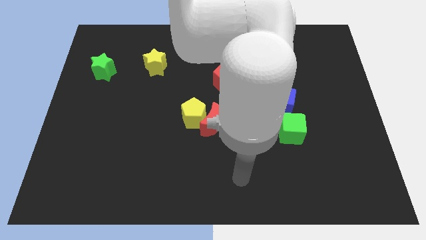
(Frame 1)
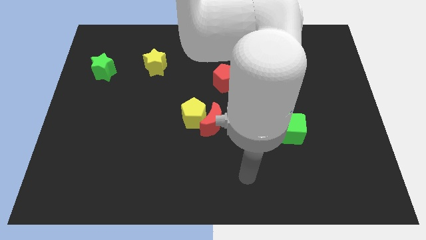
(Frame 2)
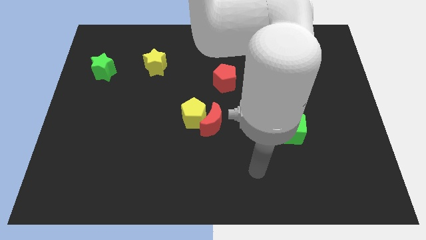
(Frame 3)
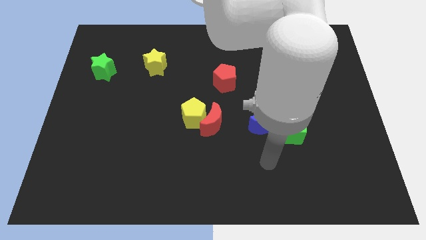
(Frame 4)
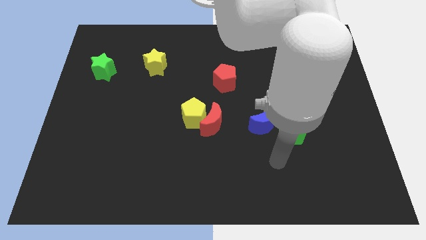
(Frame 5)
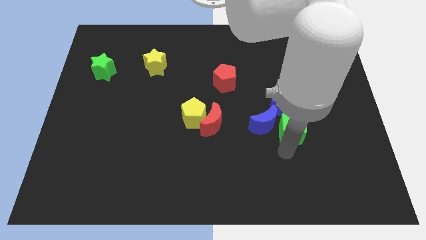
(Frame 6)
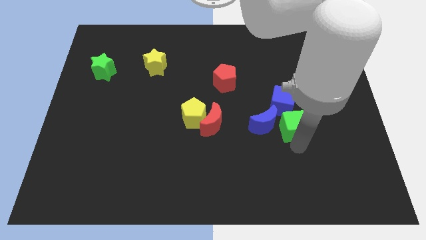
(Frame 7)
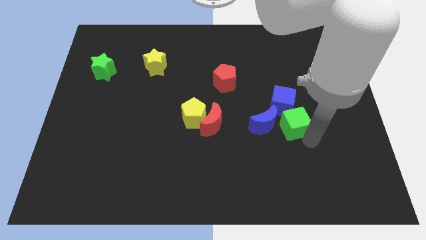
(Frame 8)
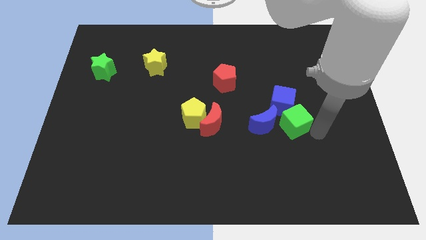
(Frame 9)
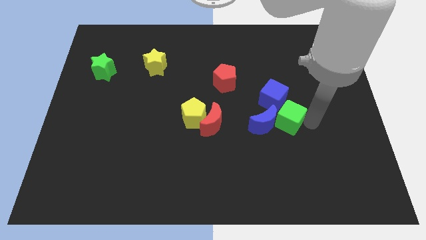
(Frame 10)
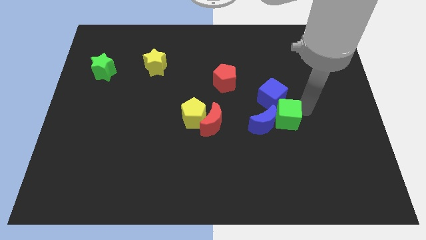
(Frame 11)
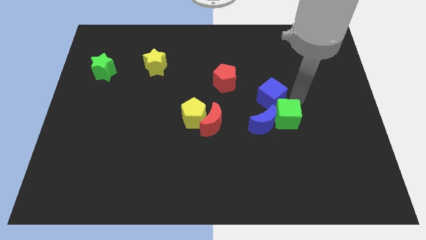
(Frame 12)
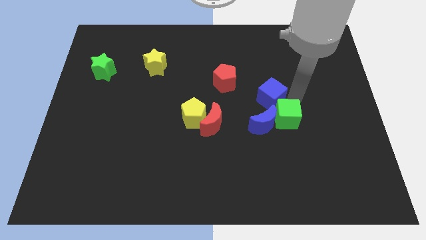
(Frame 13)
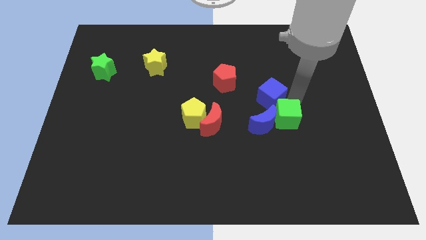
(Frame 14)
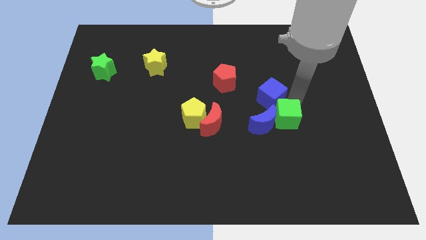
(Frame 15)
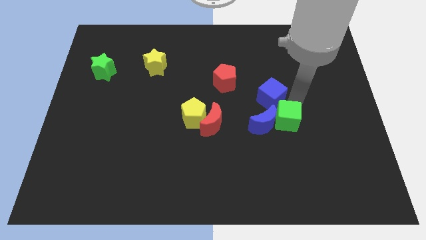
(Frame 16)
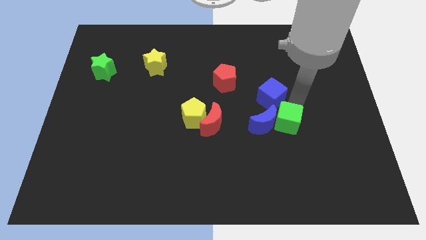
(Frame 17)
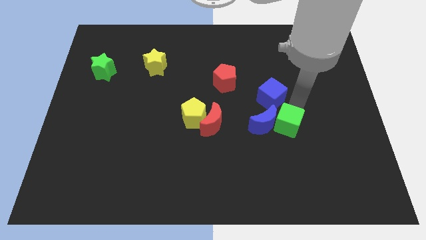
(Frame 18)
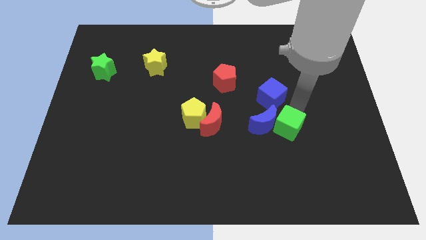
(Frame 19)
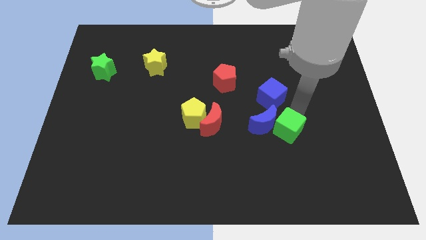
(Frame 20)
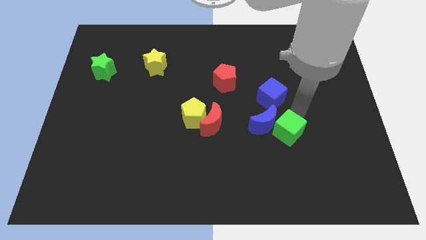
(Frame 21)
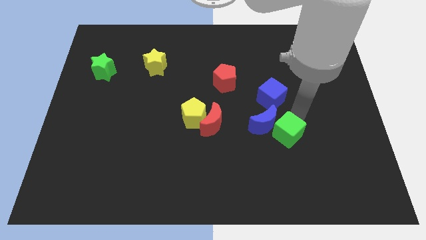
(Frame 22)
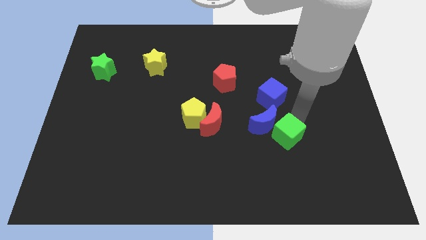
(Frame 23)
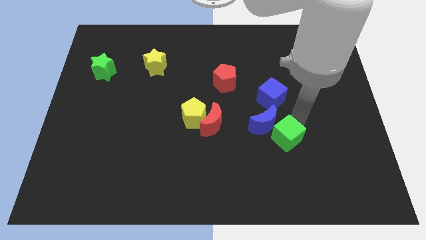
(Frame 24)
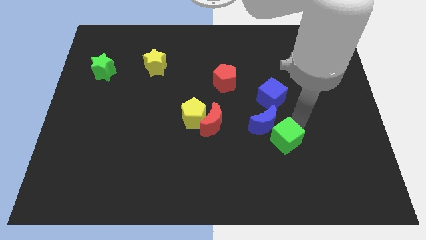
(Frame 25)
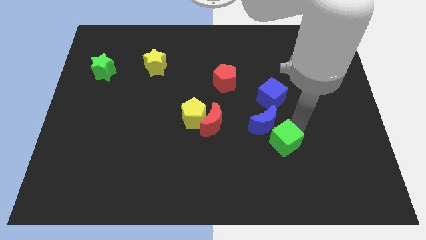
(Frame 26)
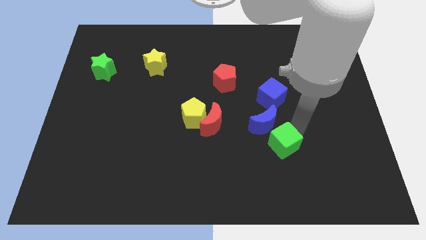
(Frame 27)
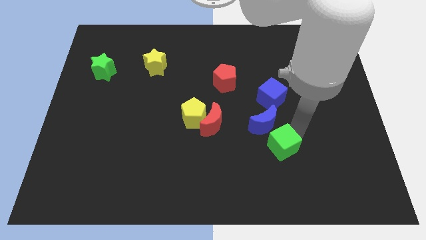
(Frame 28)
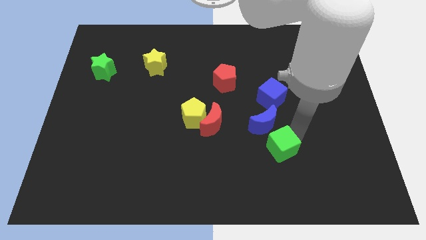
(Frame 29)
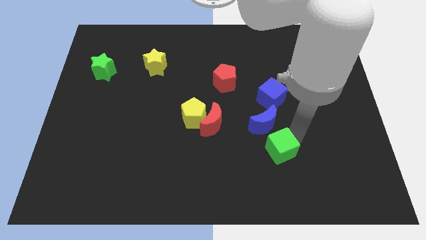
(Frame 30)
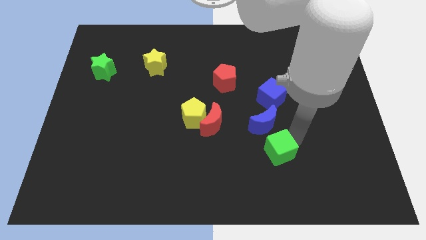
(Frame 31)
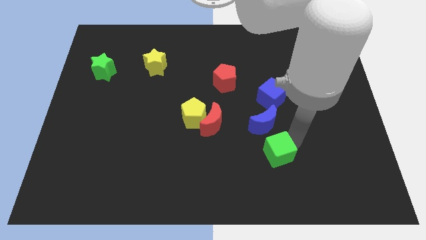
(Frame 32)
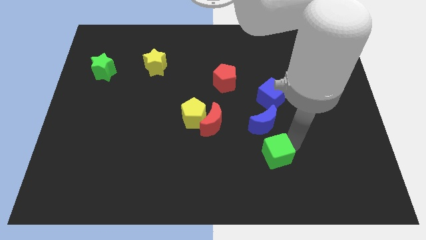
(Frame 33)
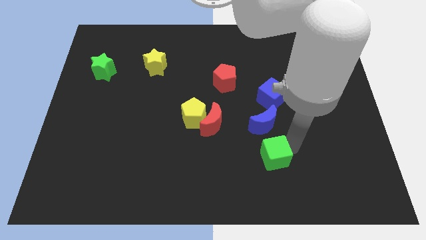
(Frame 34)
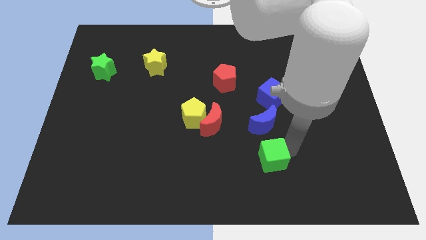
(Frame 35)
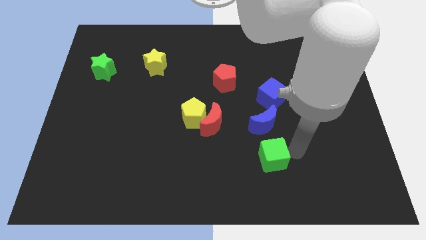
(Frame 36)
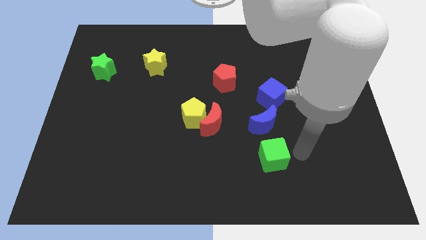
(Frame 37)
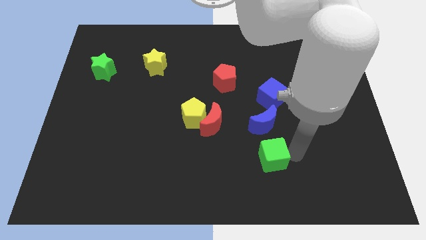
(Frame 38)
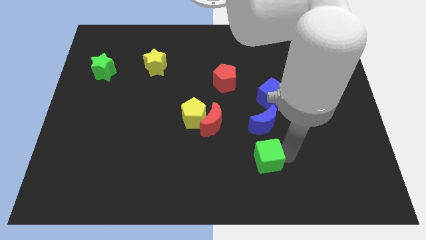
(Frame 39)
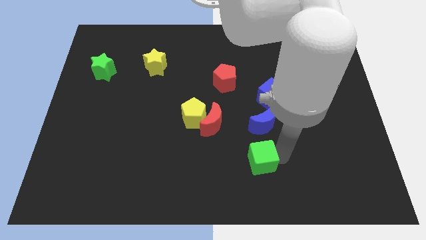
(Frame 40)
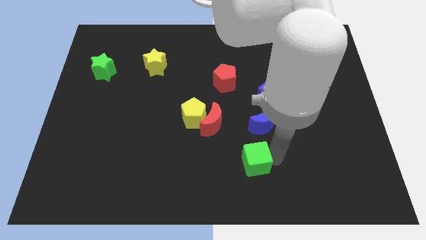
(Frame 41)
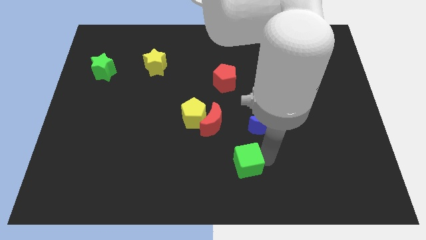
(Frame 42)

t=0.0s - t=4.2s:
move the green cube to the bottom side

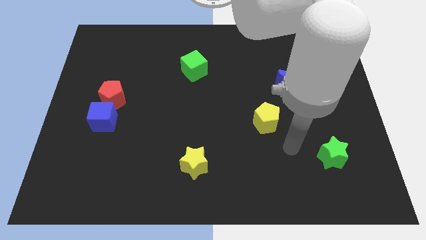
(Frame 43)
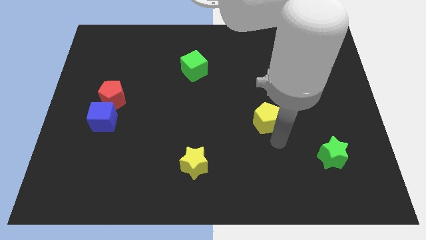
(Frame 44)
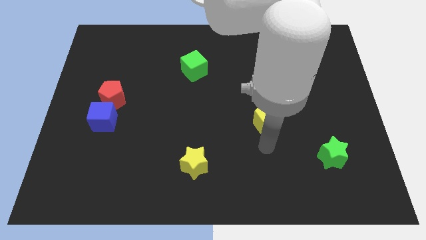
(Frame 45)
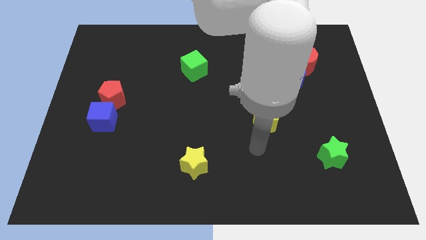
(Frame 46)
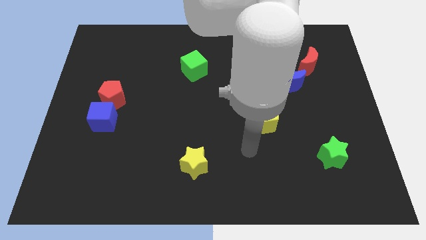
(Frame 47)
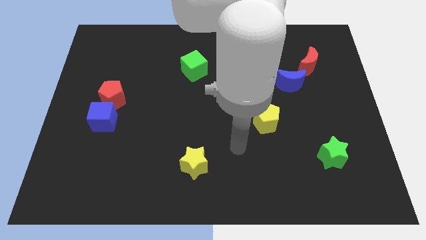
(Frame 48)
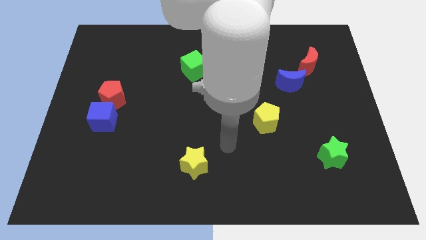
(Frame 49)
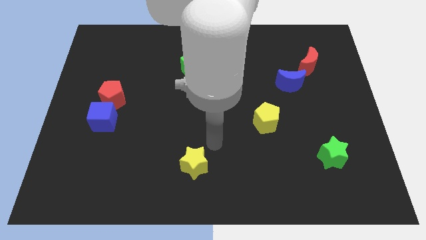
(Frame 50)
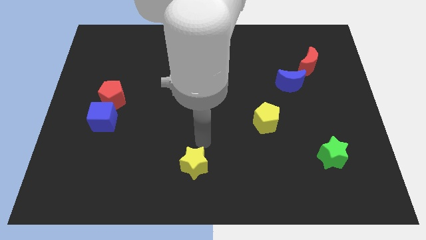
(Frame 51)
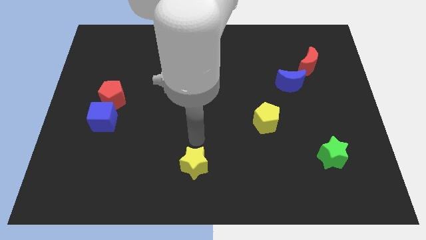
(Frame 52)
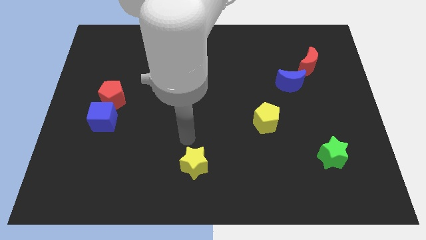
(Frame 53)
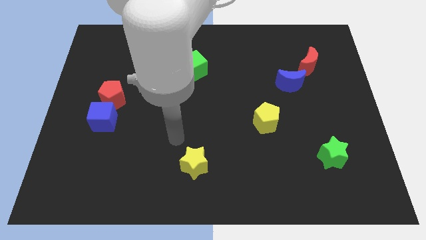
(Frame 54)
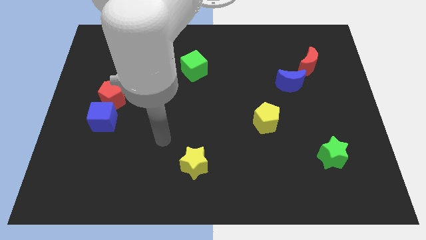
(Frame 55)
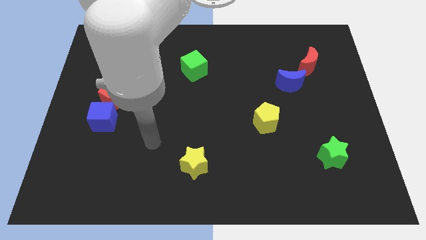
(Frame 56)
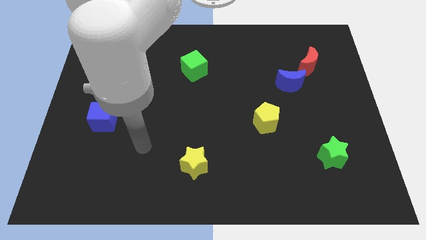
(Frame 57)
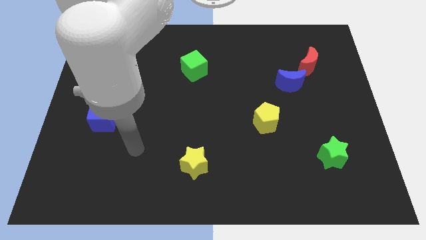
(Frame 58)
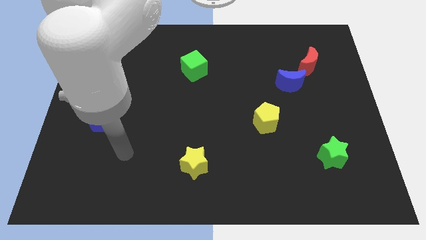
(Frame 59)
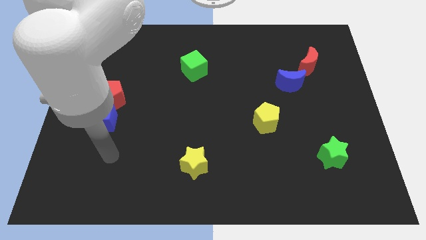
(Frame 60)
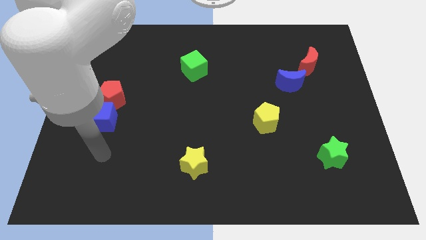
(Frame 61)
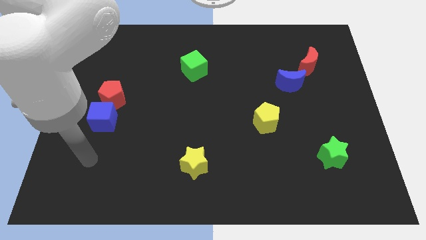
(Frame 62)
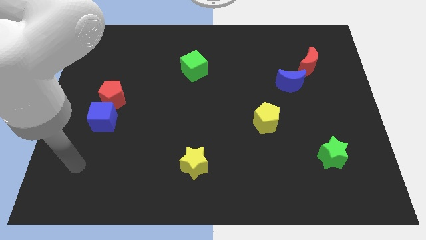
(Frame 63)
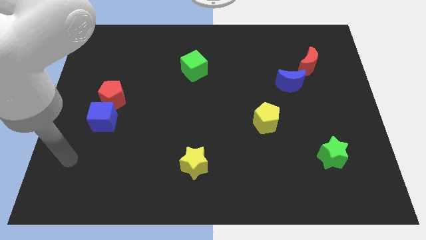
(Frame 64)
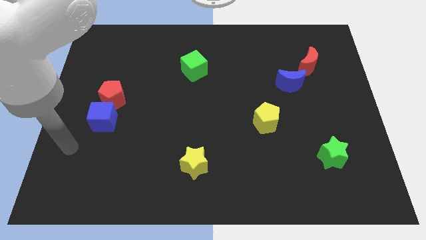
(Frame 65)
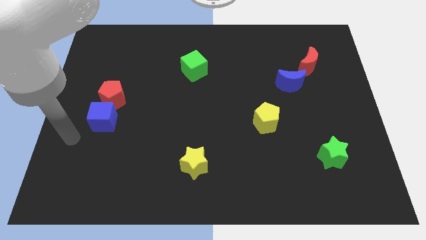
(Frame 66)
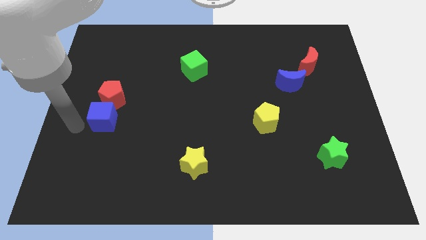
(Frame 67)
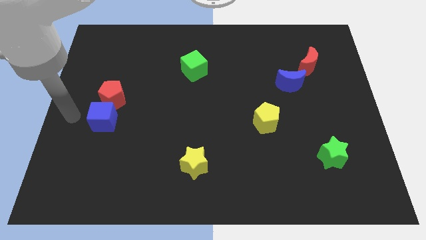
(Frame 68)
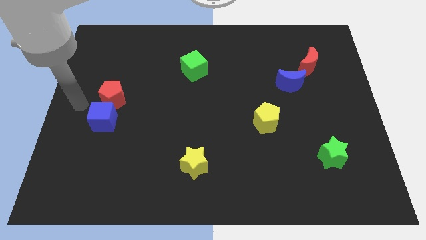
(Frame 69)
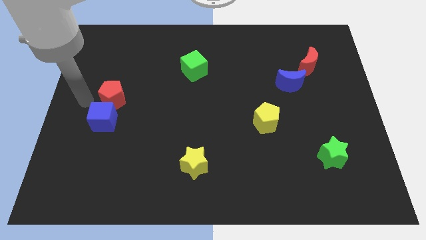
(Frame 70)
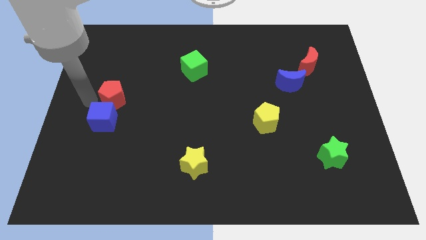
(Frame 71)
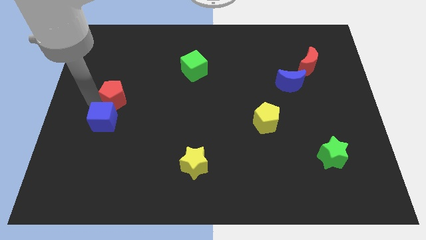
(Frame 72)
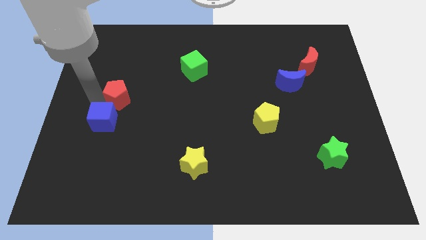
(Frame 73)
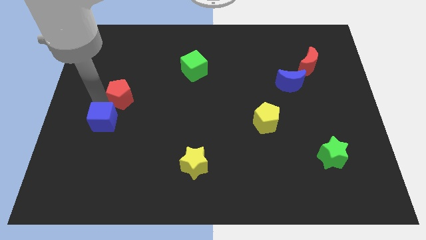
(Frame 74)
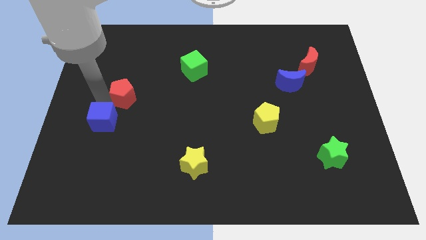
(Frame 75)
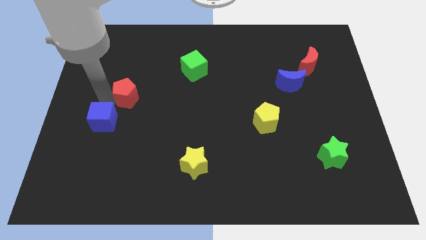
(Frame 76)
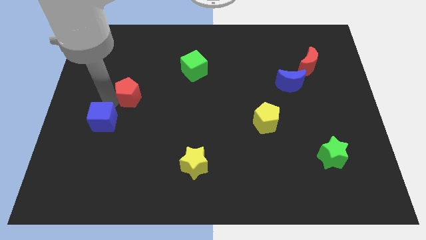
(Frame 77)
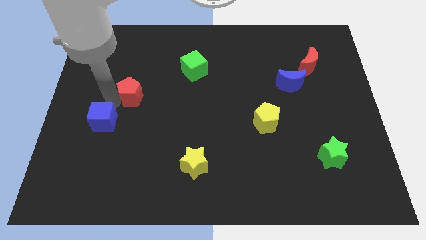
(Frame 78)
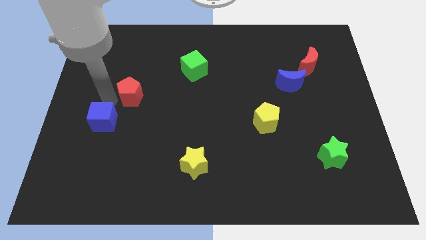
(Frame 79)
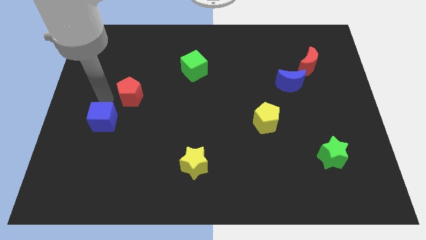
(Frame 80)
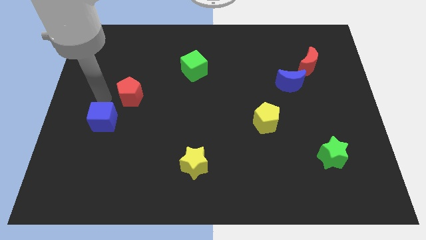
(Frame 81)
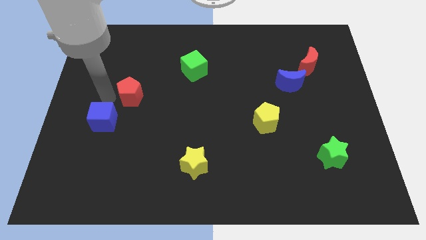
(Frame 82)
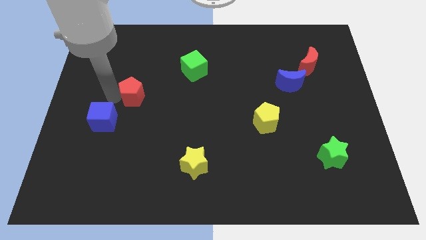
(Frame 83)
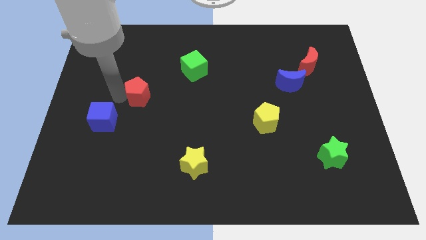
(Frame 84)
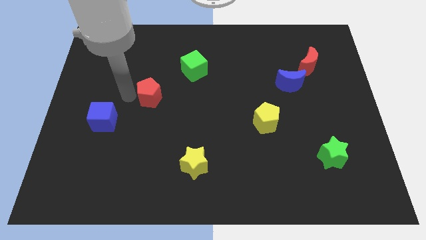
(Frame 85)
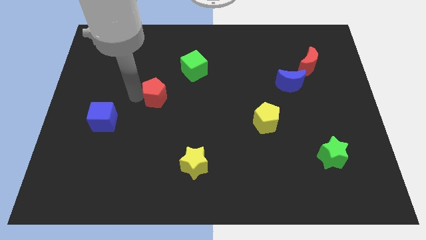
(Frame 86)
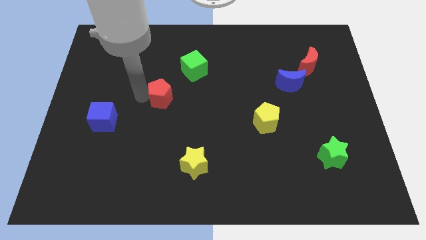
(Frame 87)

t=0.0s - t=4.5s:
slide the red pentagon to the middle of the board
